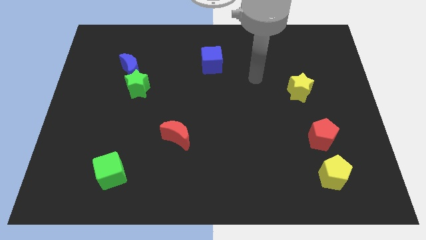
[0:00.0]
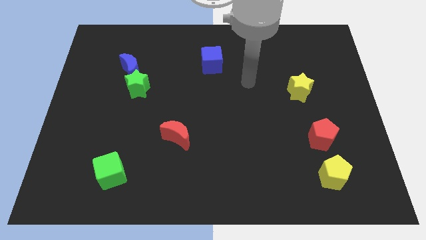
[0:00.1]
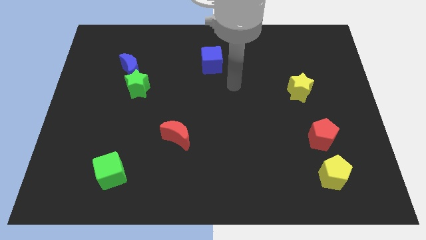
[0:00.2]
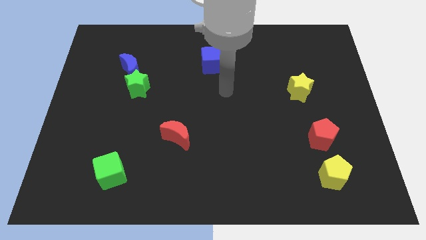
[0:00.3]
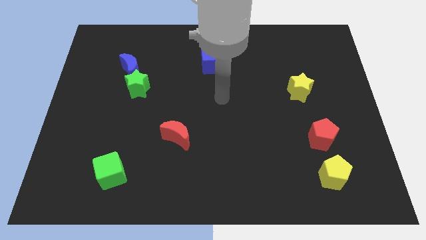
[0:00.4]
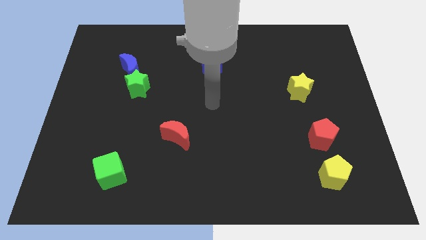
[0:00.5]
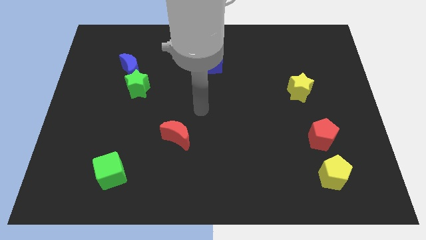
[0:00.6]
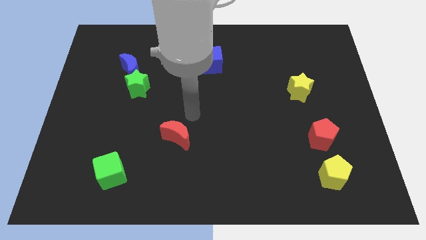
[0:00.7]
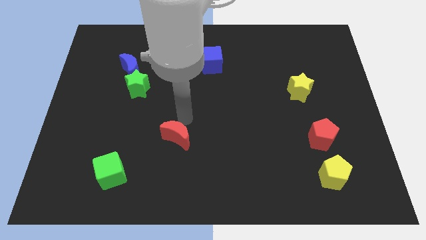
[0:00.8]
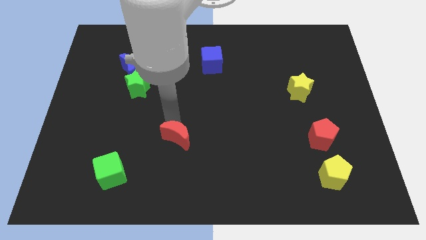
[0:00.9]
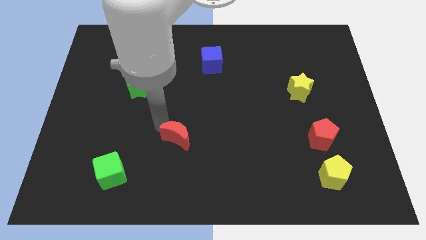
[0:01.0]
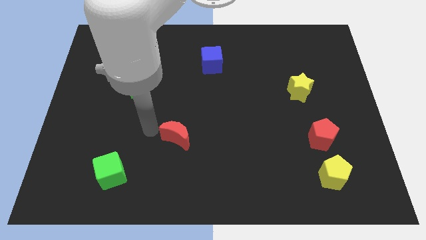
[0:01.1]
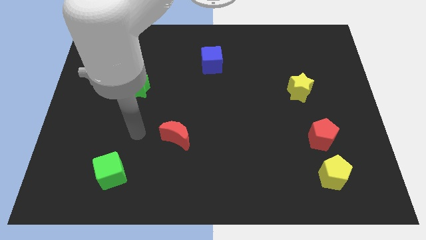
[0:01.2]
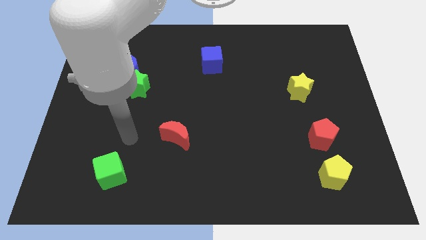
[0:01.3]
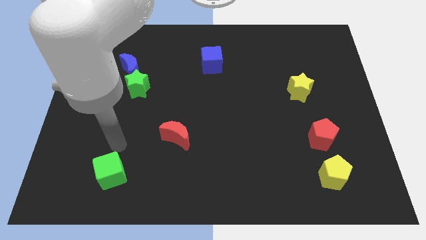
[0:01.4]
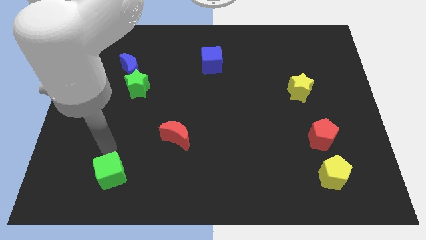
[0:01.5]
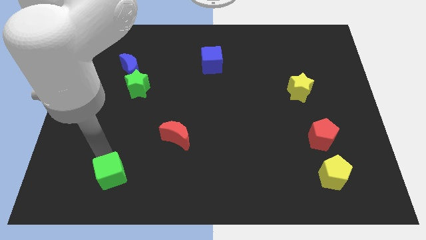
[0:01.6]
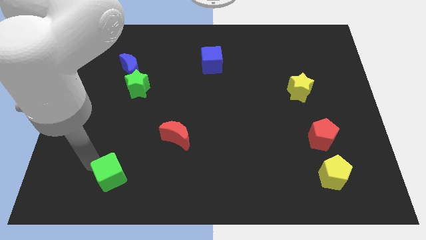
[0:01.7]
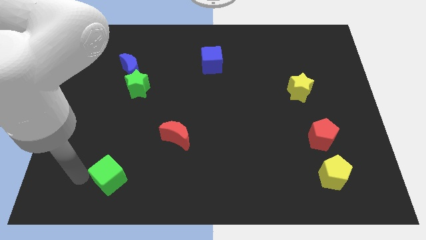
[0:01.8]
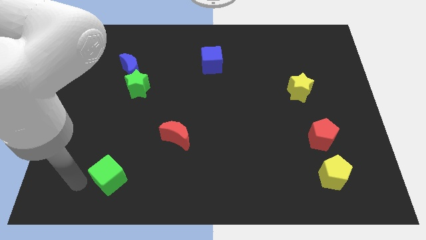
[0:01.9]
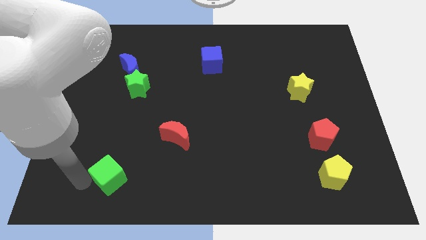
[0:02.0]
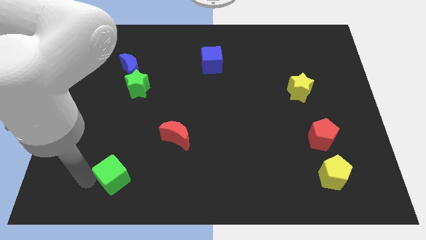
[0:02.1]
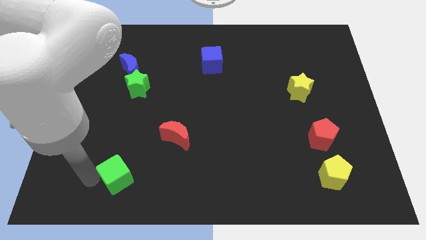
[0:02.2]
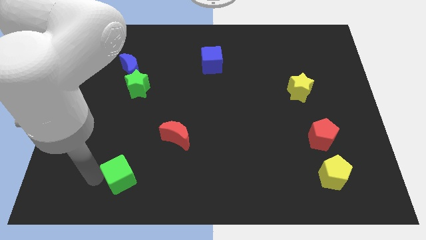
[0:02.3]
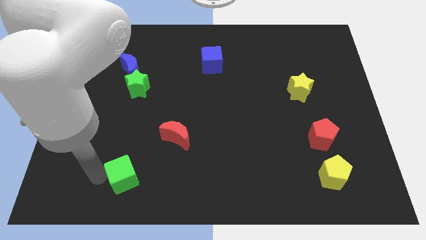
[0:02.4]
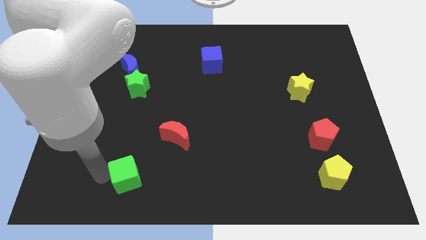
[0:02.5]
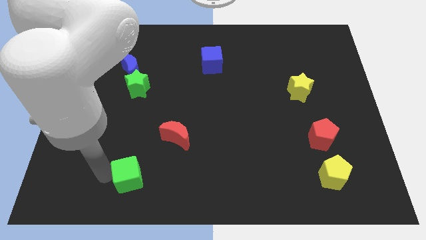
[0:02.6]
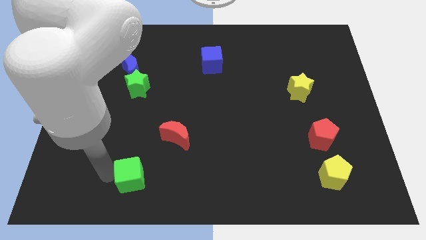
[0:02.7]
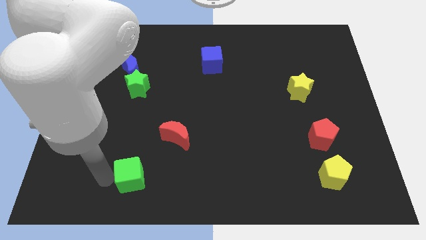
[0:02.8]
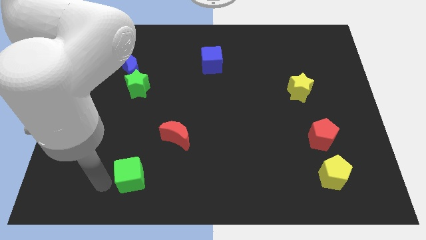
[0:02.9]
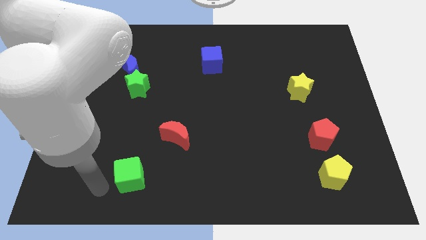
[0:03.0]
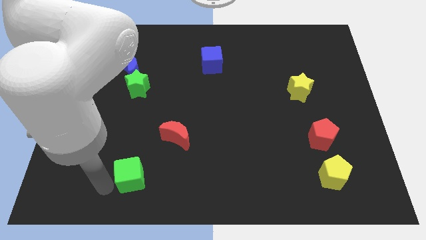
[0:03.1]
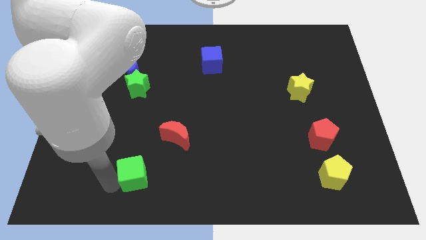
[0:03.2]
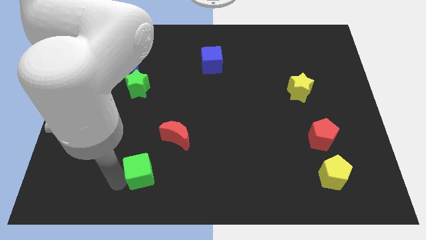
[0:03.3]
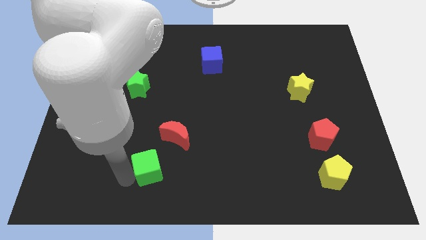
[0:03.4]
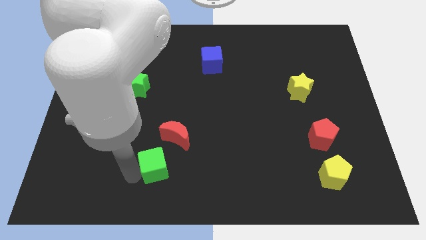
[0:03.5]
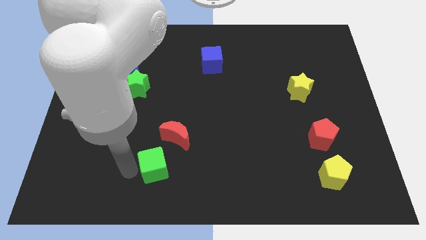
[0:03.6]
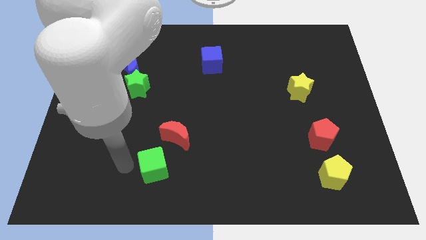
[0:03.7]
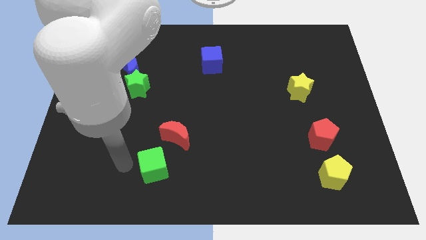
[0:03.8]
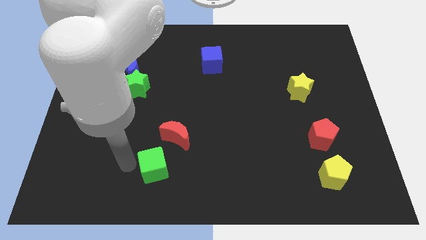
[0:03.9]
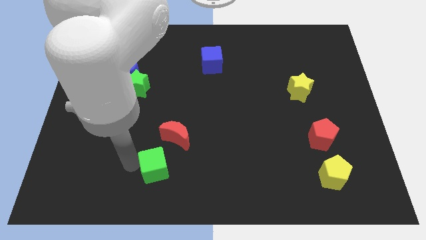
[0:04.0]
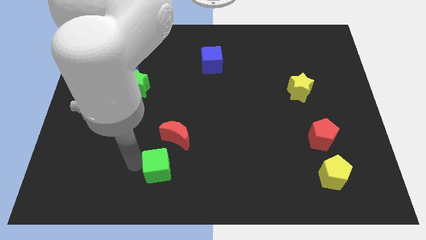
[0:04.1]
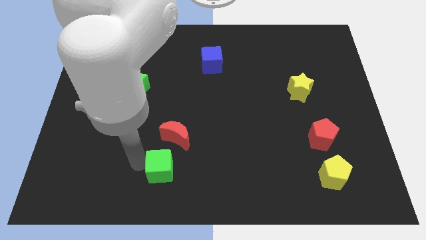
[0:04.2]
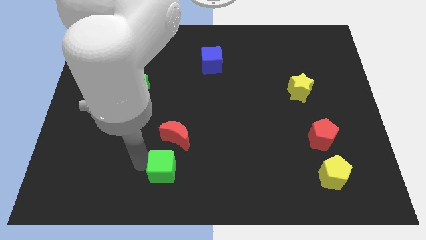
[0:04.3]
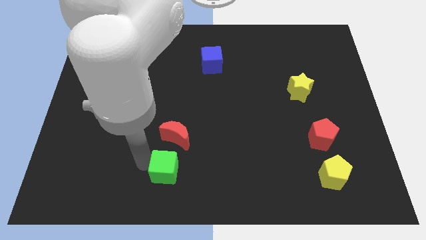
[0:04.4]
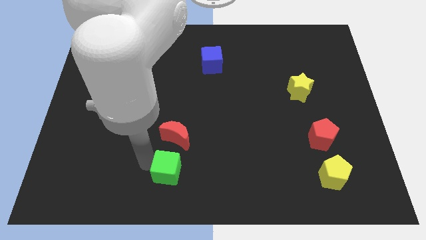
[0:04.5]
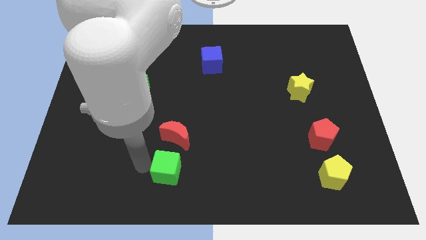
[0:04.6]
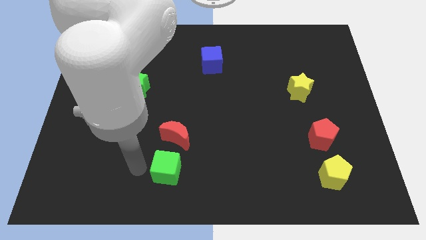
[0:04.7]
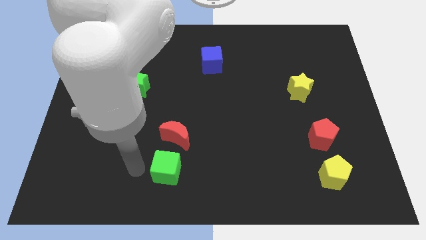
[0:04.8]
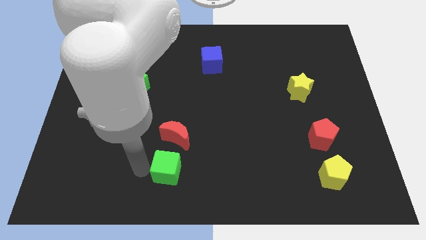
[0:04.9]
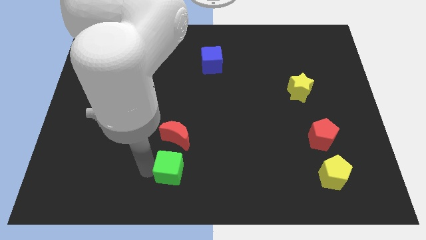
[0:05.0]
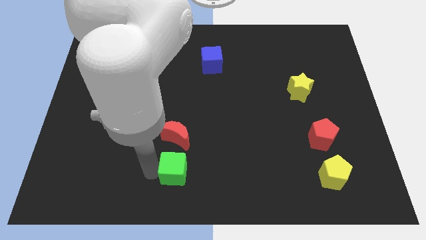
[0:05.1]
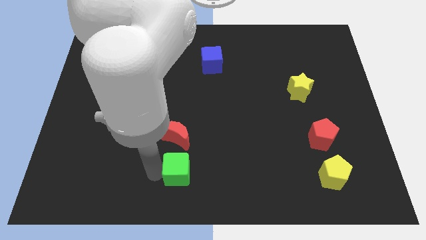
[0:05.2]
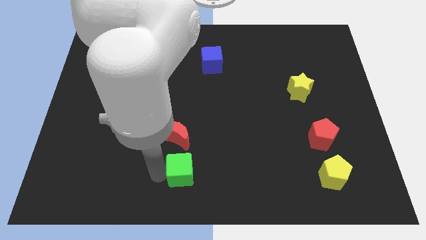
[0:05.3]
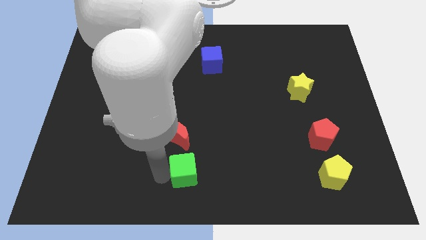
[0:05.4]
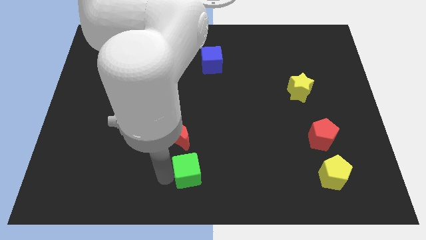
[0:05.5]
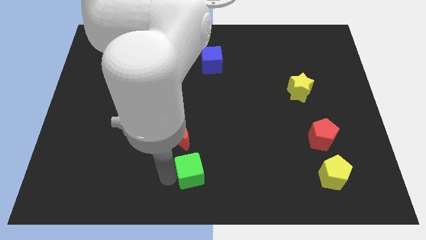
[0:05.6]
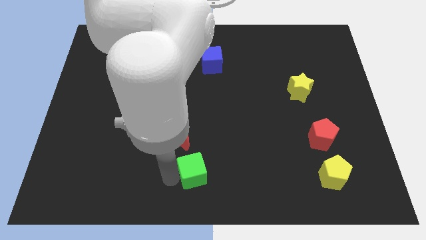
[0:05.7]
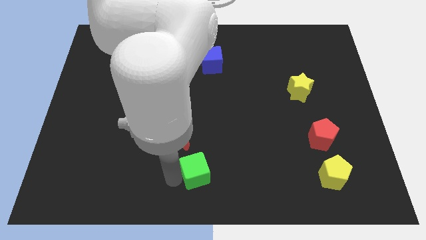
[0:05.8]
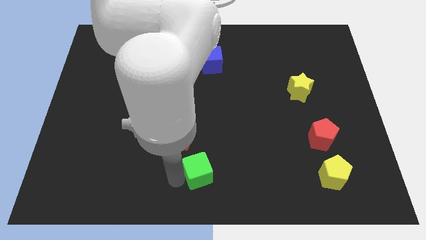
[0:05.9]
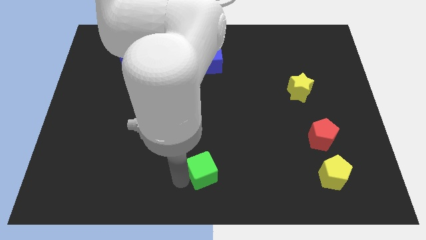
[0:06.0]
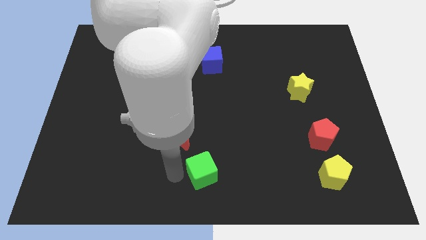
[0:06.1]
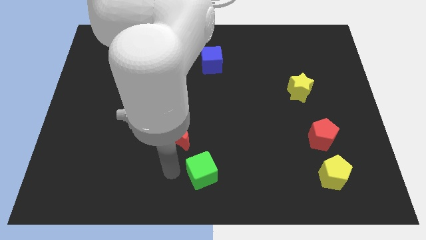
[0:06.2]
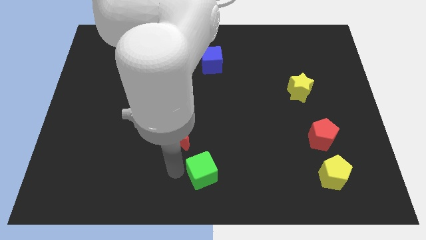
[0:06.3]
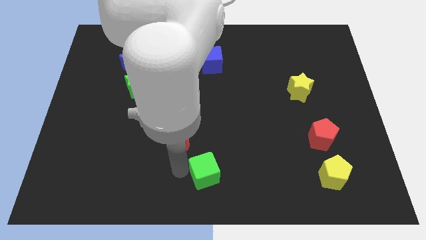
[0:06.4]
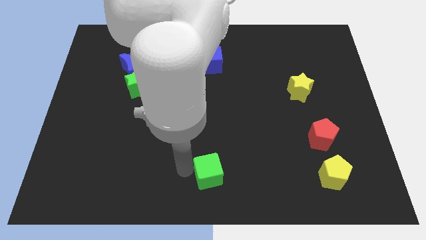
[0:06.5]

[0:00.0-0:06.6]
slide the green cube to the right

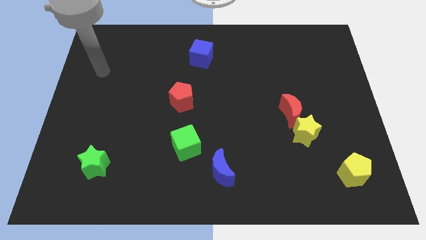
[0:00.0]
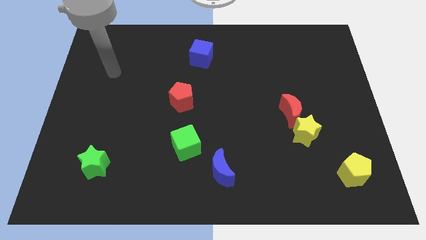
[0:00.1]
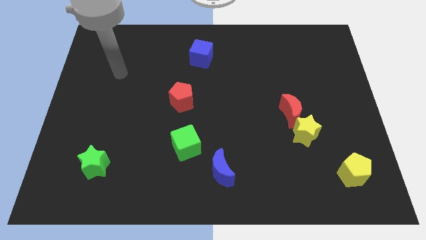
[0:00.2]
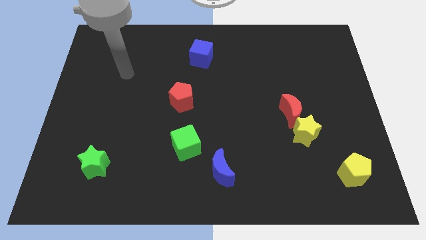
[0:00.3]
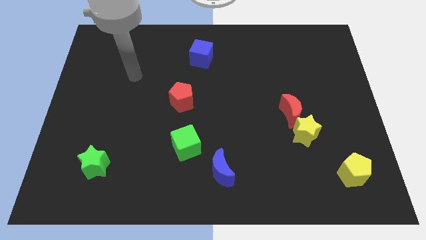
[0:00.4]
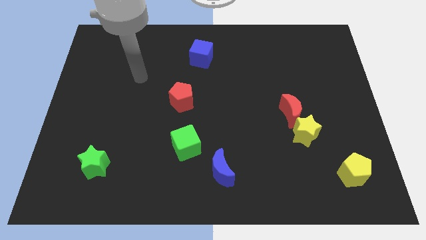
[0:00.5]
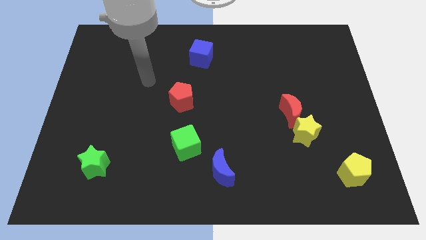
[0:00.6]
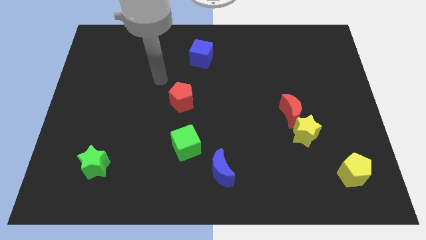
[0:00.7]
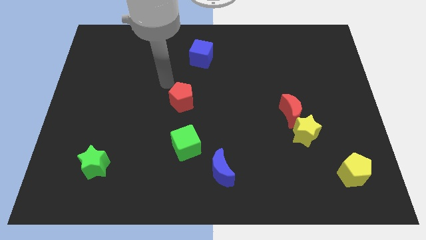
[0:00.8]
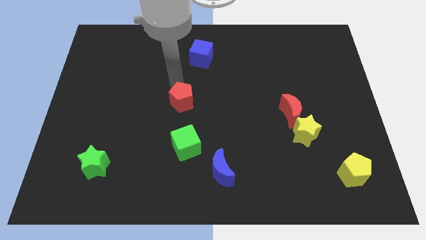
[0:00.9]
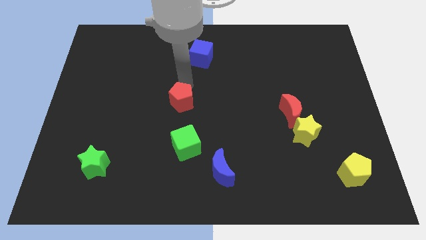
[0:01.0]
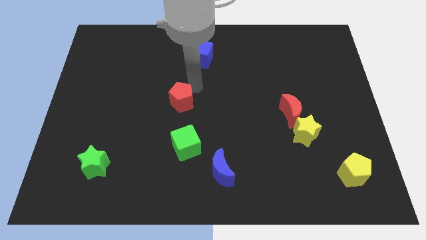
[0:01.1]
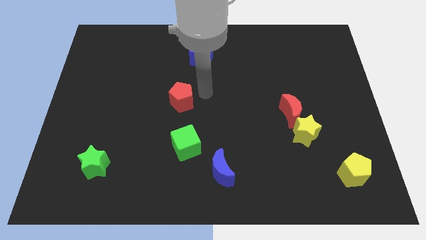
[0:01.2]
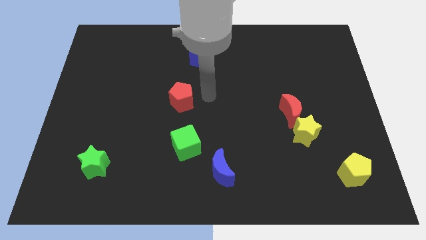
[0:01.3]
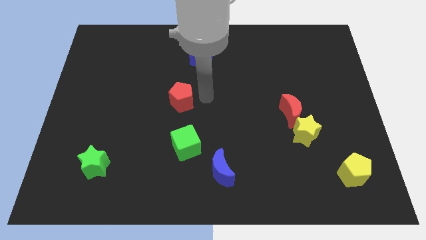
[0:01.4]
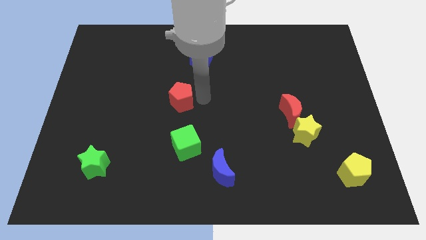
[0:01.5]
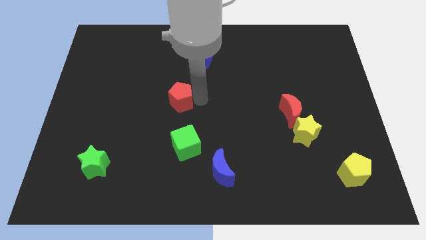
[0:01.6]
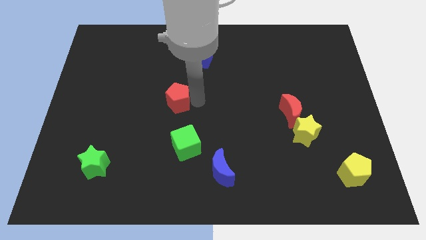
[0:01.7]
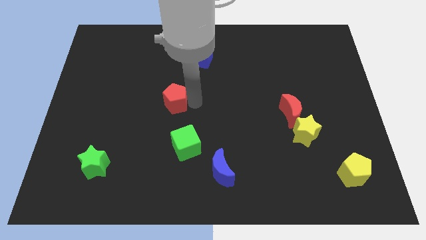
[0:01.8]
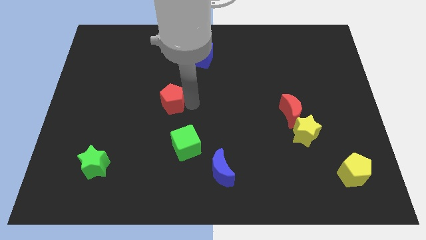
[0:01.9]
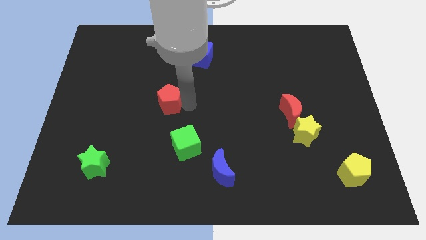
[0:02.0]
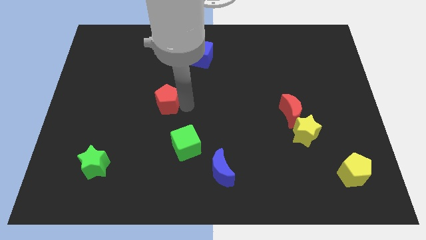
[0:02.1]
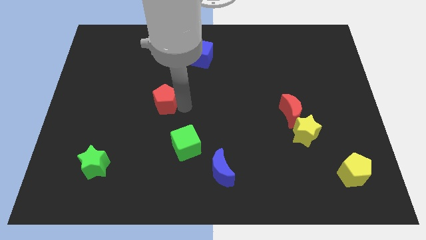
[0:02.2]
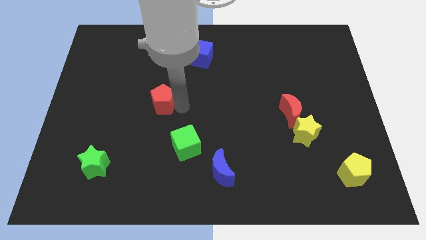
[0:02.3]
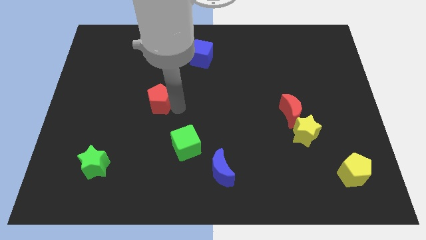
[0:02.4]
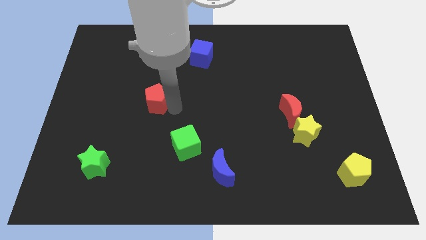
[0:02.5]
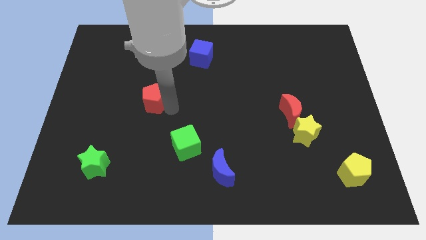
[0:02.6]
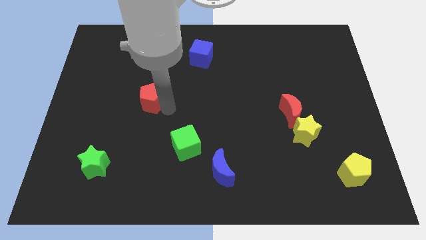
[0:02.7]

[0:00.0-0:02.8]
move the red pentagon somewhat left
